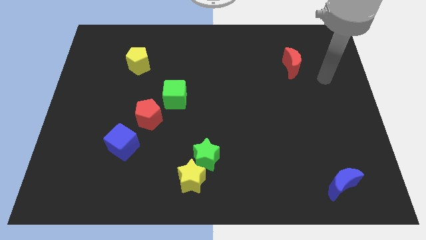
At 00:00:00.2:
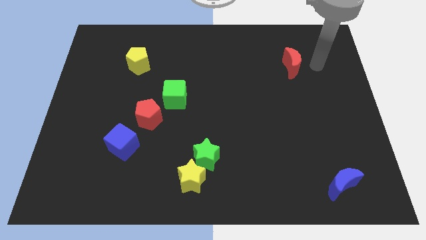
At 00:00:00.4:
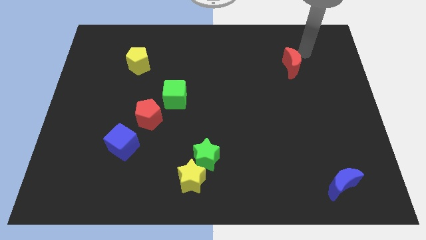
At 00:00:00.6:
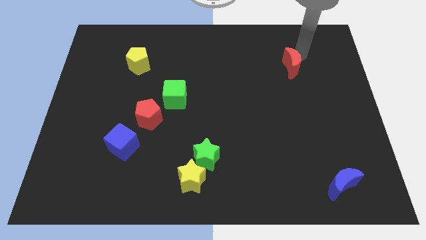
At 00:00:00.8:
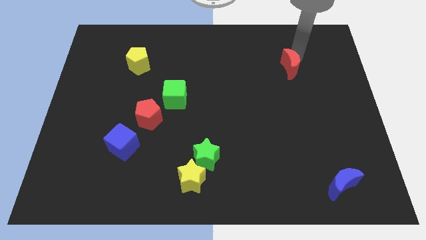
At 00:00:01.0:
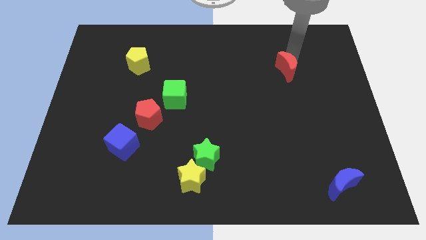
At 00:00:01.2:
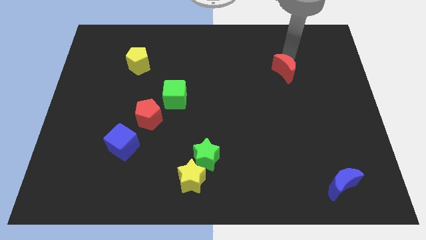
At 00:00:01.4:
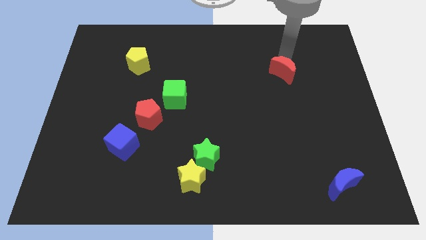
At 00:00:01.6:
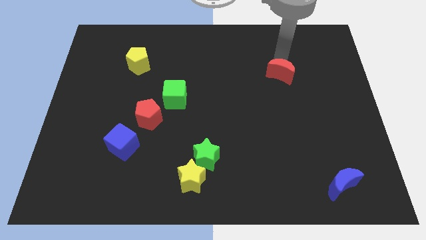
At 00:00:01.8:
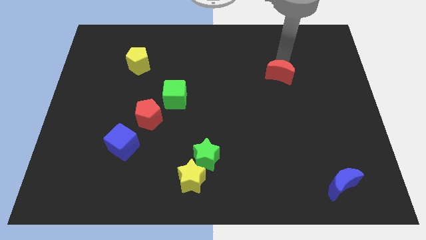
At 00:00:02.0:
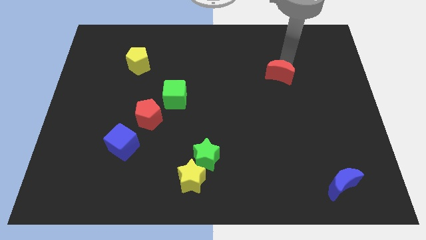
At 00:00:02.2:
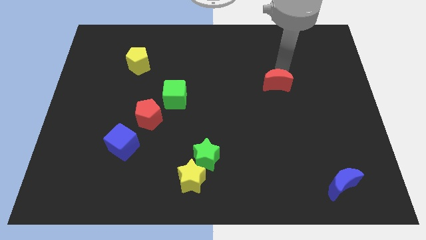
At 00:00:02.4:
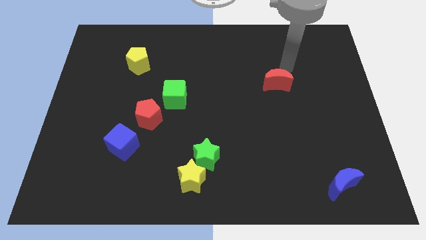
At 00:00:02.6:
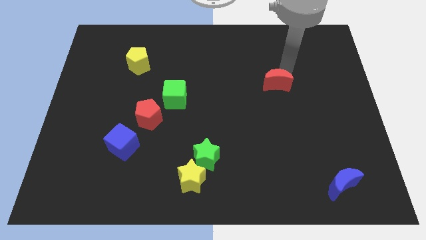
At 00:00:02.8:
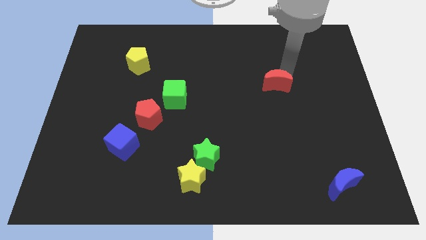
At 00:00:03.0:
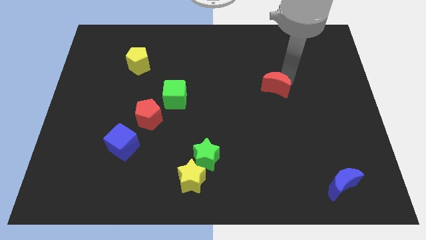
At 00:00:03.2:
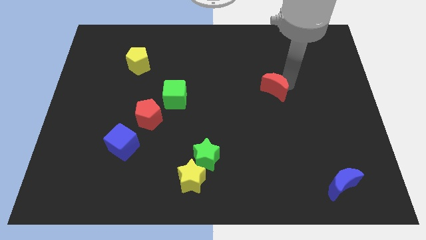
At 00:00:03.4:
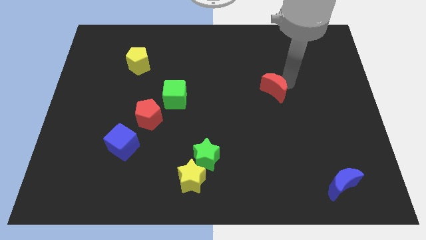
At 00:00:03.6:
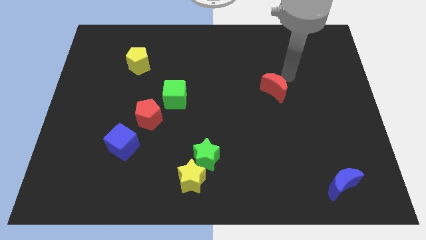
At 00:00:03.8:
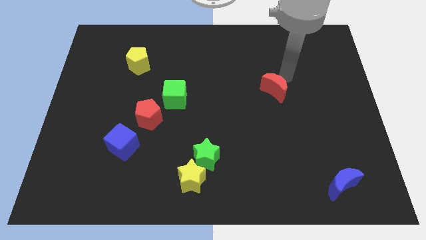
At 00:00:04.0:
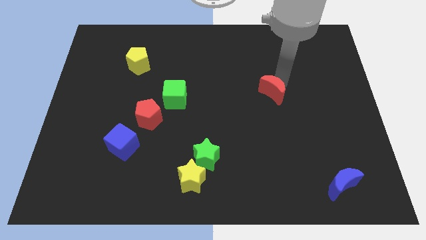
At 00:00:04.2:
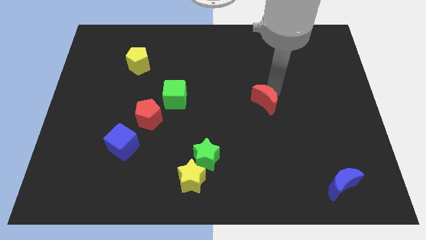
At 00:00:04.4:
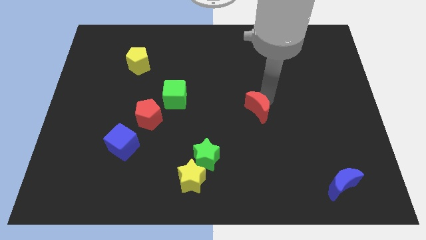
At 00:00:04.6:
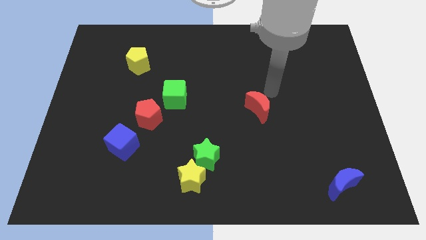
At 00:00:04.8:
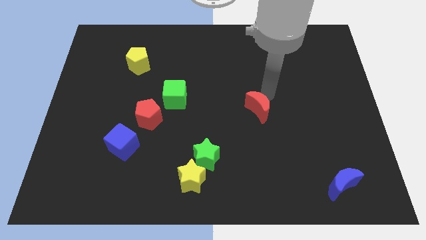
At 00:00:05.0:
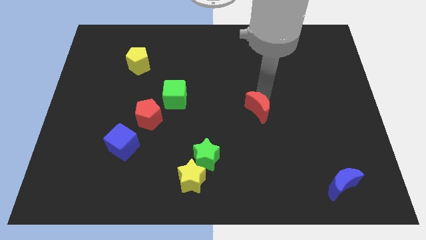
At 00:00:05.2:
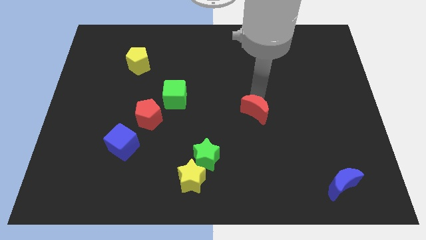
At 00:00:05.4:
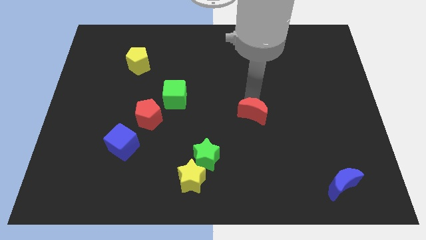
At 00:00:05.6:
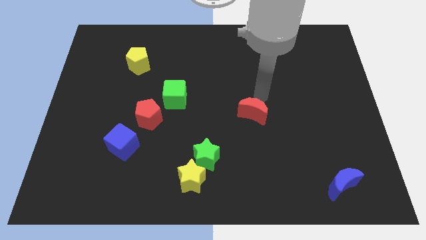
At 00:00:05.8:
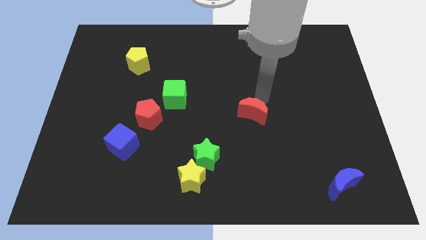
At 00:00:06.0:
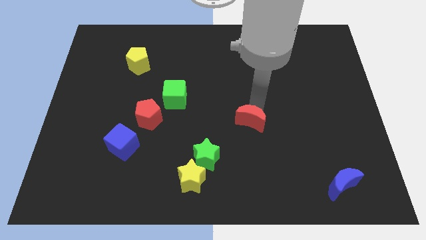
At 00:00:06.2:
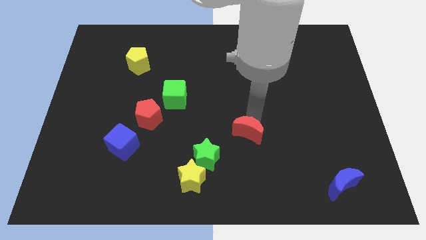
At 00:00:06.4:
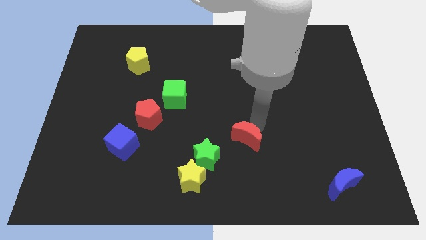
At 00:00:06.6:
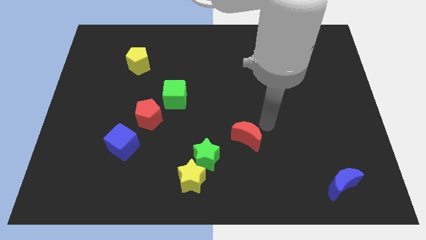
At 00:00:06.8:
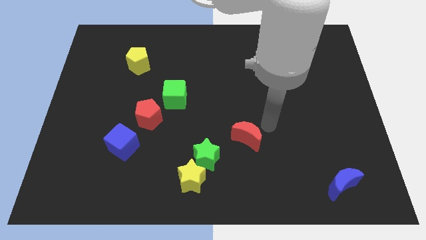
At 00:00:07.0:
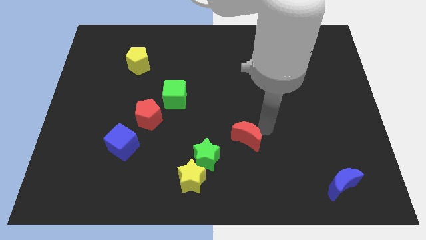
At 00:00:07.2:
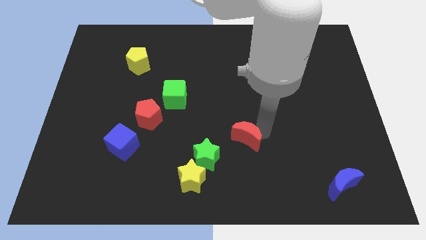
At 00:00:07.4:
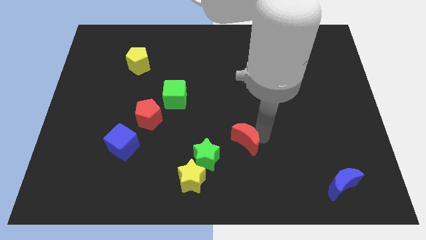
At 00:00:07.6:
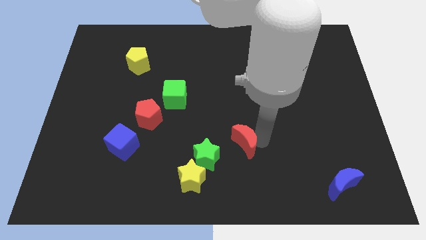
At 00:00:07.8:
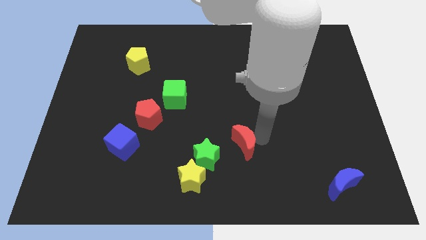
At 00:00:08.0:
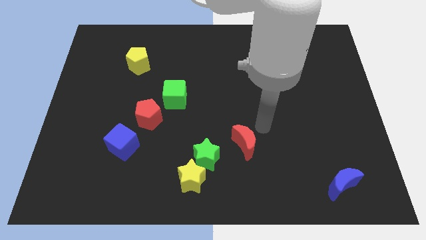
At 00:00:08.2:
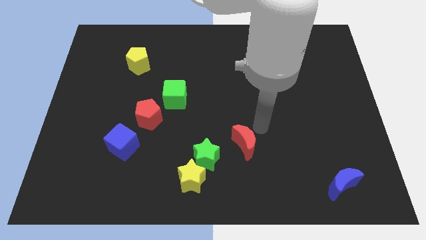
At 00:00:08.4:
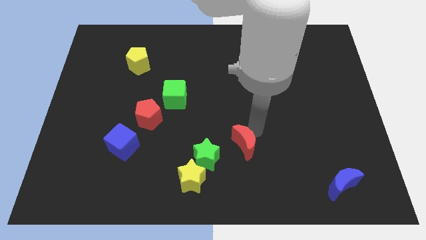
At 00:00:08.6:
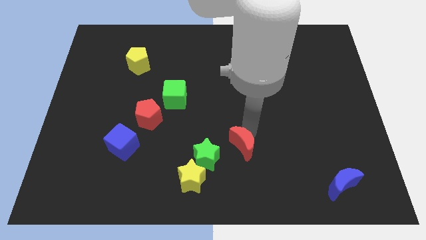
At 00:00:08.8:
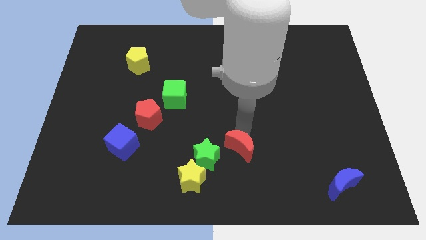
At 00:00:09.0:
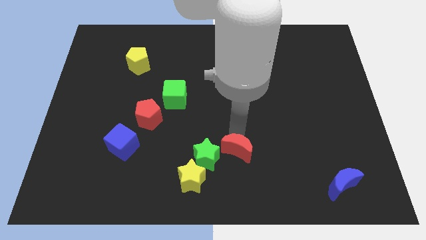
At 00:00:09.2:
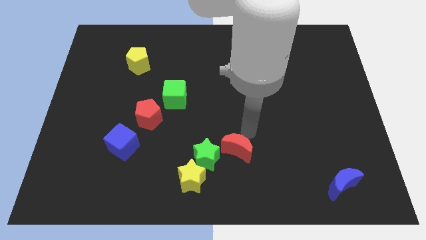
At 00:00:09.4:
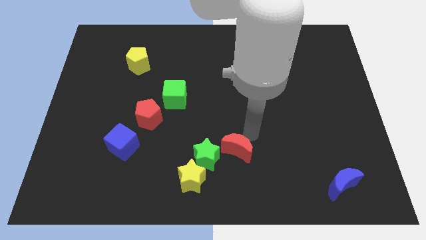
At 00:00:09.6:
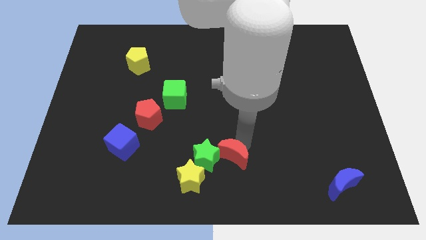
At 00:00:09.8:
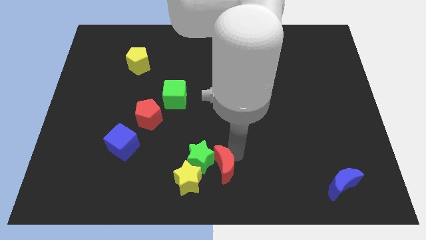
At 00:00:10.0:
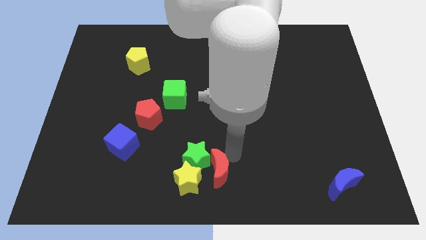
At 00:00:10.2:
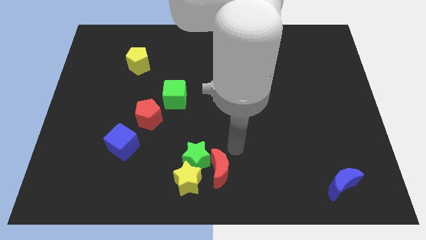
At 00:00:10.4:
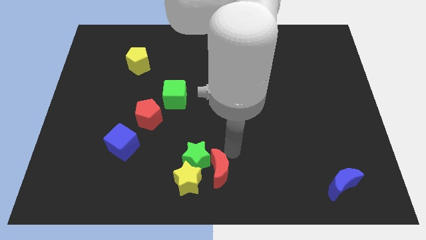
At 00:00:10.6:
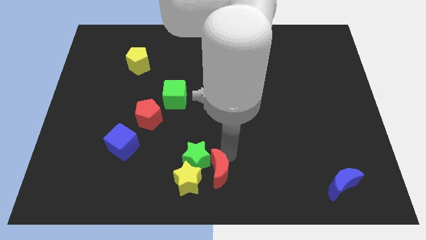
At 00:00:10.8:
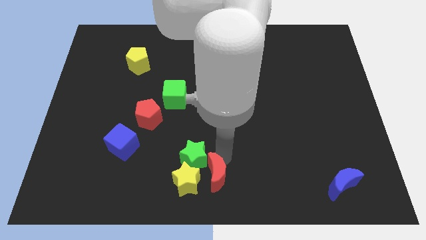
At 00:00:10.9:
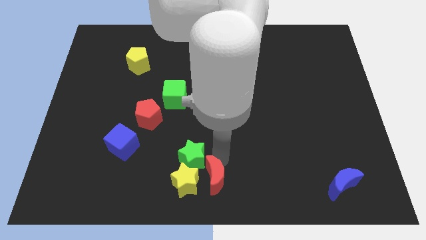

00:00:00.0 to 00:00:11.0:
slide the red moon to the yellow star

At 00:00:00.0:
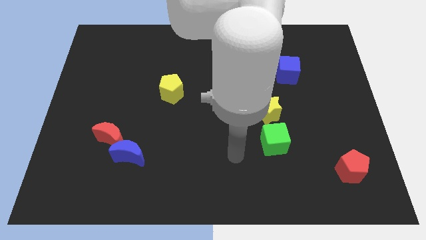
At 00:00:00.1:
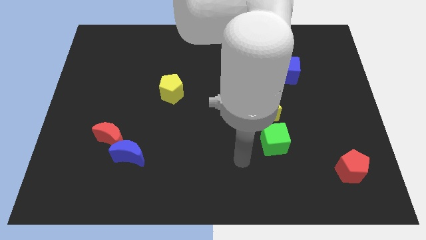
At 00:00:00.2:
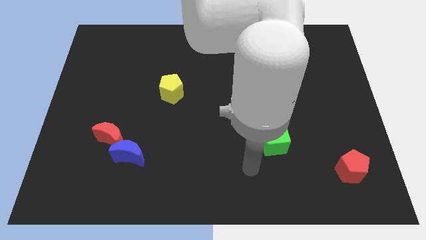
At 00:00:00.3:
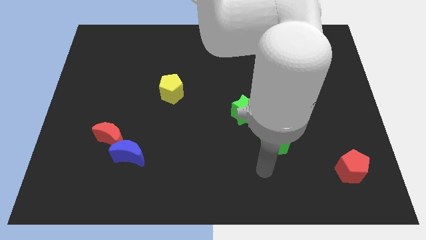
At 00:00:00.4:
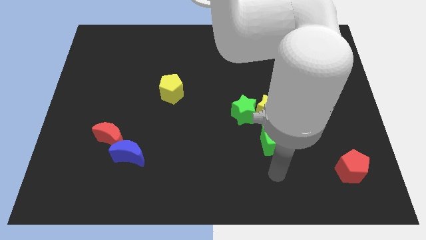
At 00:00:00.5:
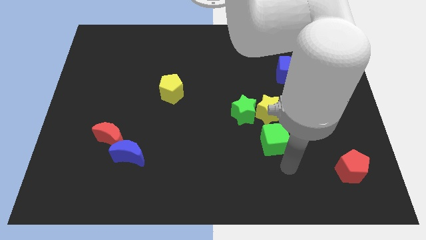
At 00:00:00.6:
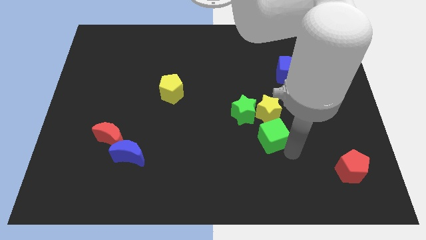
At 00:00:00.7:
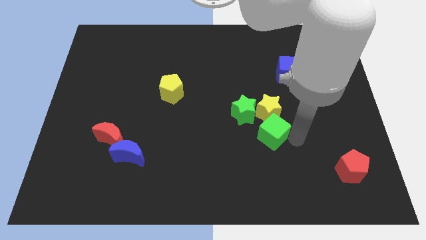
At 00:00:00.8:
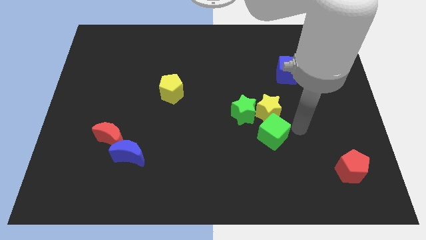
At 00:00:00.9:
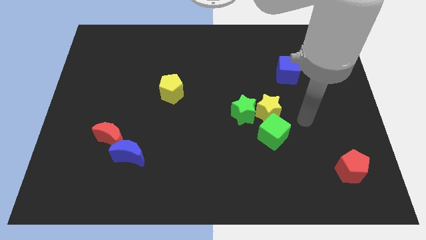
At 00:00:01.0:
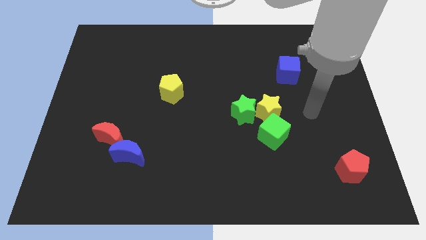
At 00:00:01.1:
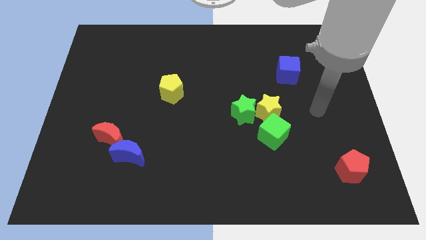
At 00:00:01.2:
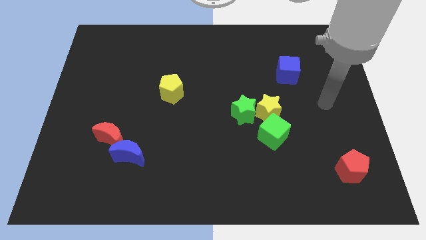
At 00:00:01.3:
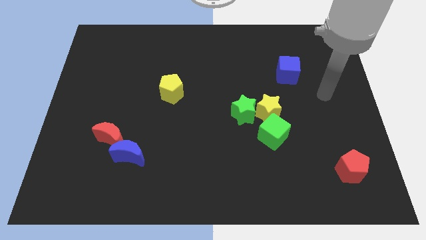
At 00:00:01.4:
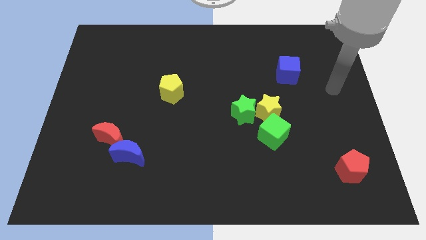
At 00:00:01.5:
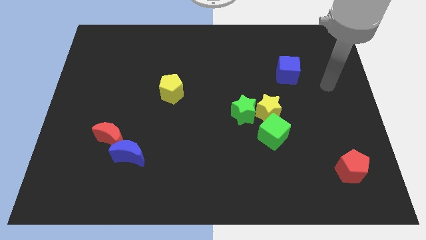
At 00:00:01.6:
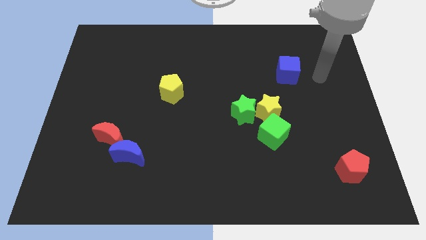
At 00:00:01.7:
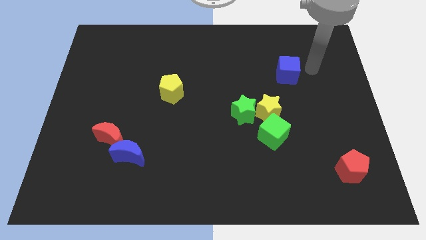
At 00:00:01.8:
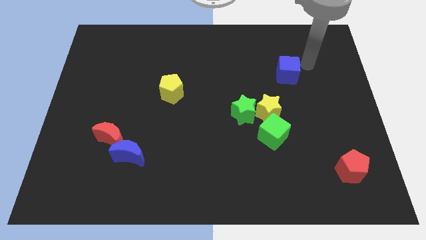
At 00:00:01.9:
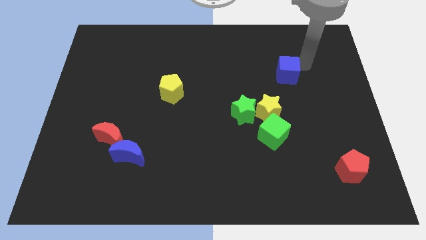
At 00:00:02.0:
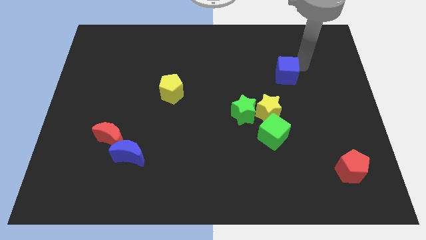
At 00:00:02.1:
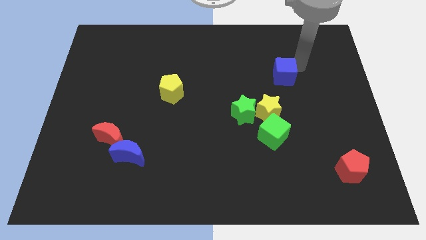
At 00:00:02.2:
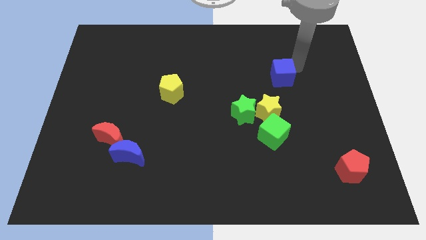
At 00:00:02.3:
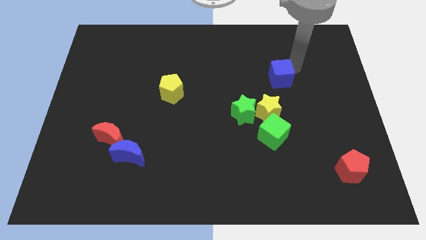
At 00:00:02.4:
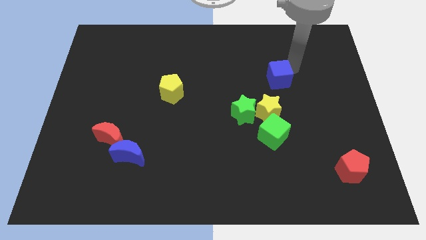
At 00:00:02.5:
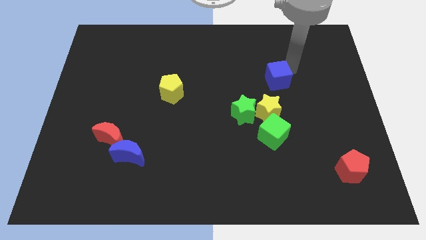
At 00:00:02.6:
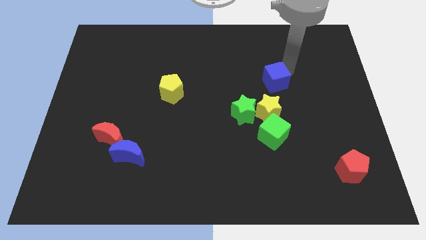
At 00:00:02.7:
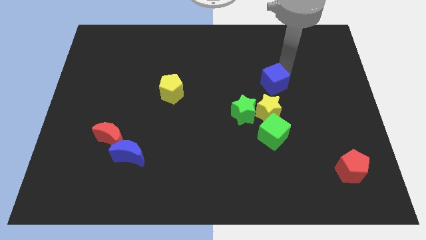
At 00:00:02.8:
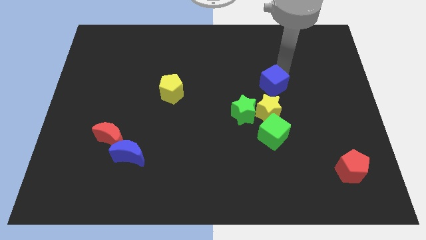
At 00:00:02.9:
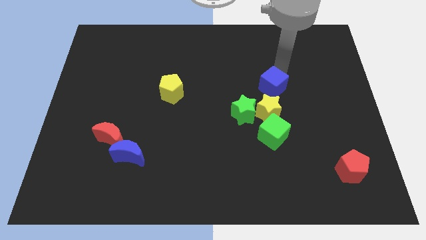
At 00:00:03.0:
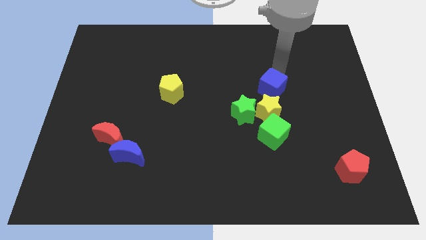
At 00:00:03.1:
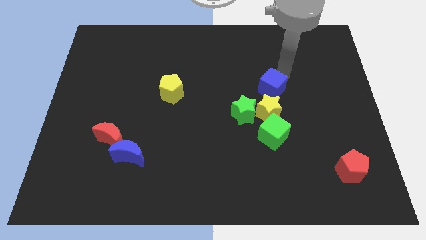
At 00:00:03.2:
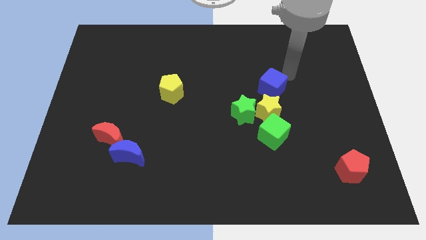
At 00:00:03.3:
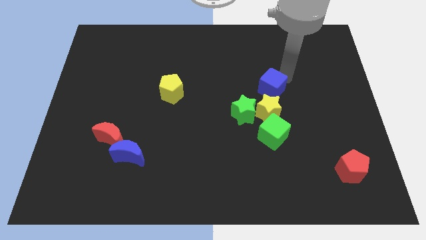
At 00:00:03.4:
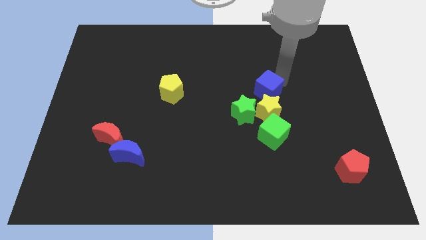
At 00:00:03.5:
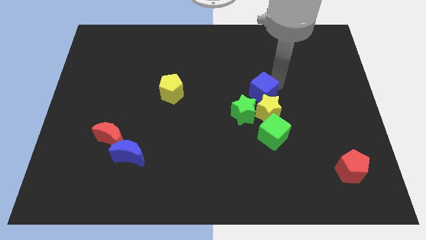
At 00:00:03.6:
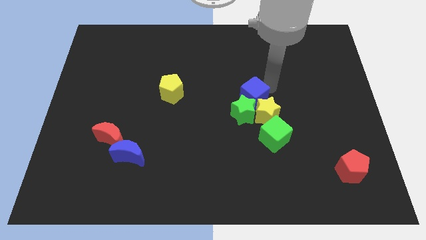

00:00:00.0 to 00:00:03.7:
put the blue cube close to the green star
